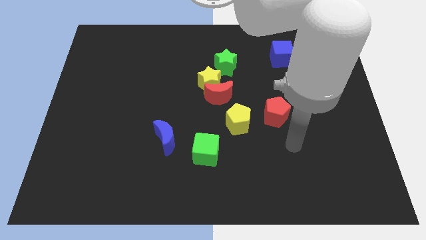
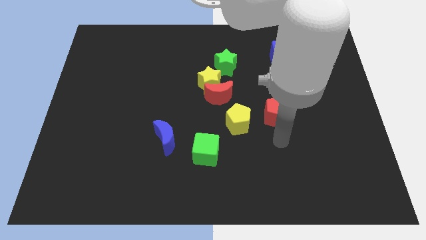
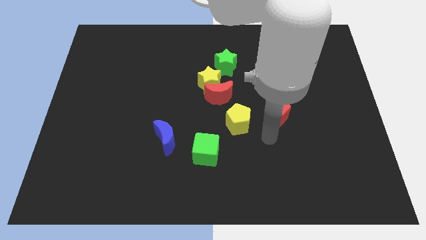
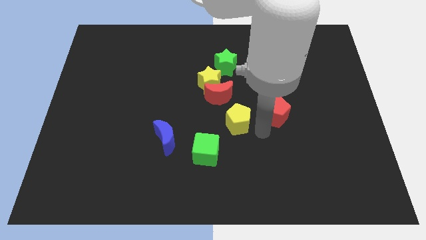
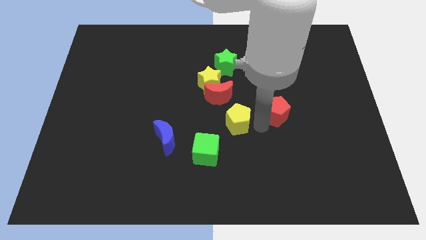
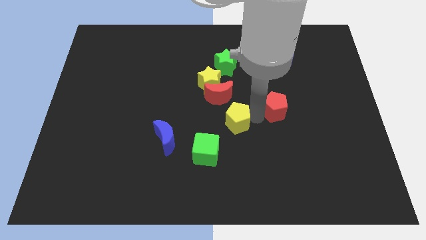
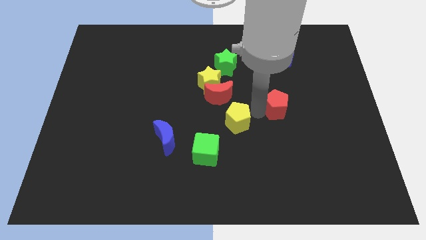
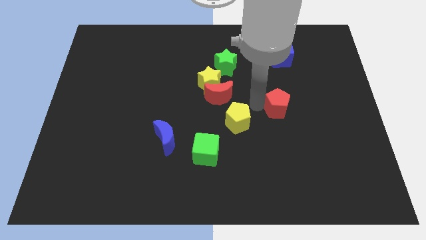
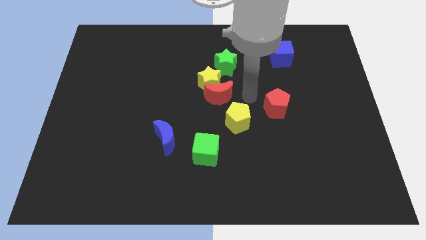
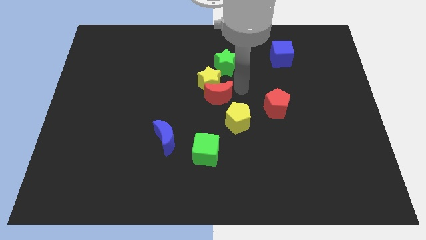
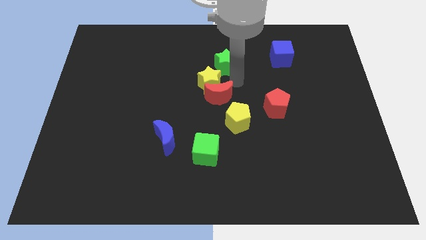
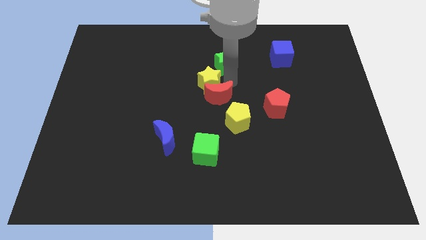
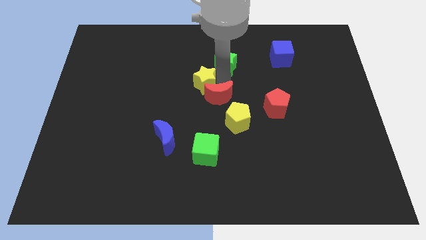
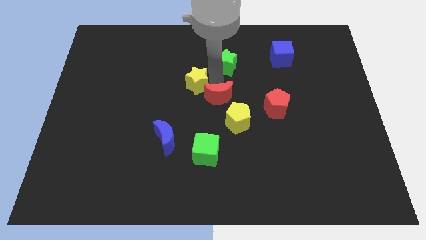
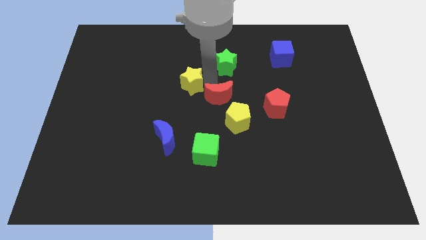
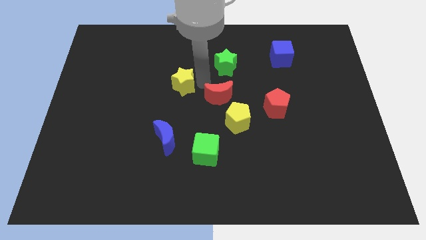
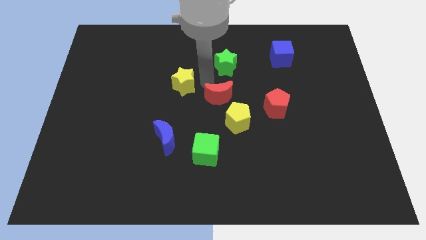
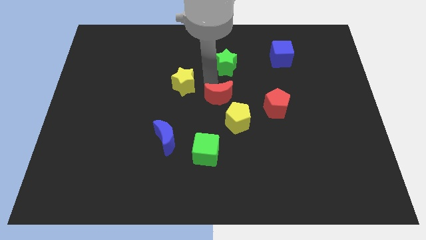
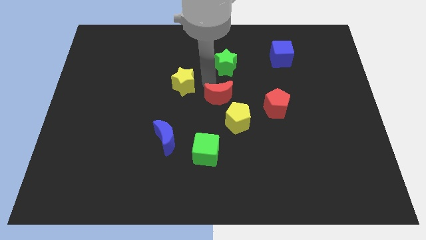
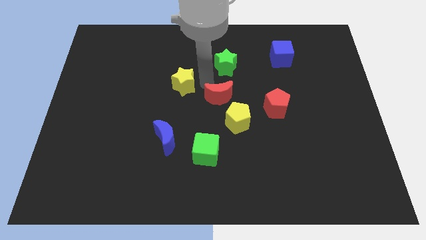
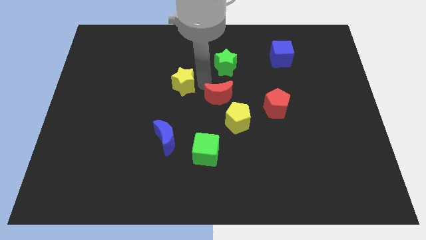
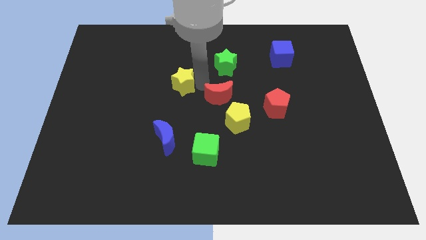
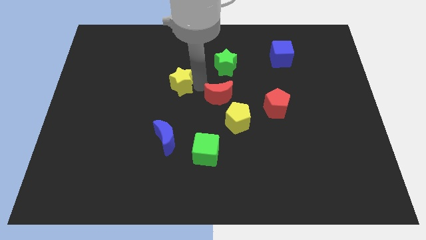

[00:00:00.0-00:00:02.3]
separate the yellow star from the red moon and green star

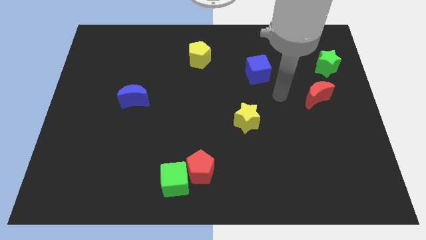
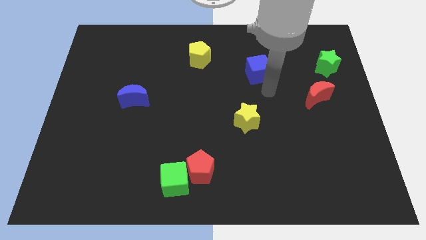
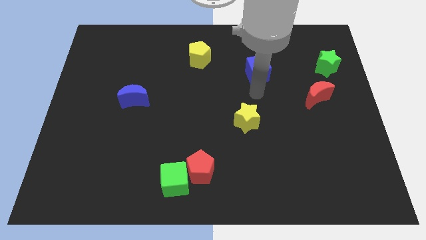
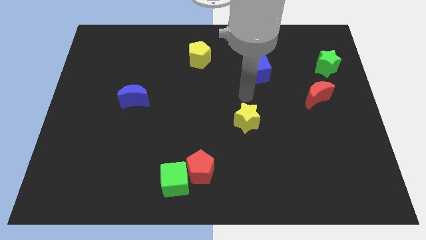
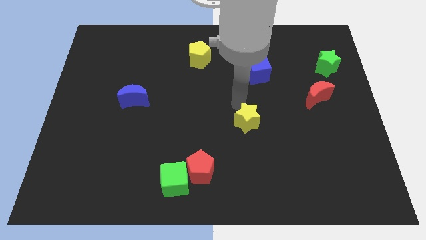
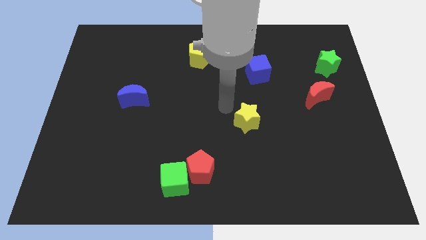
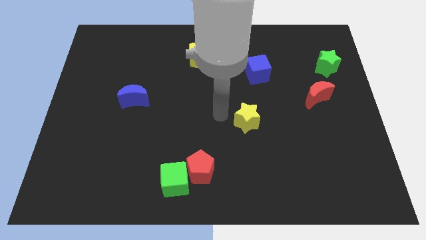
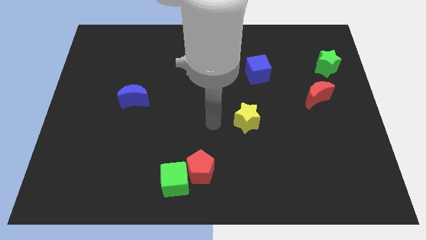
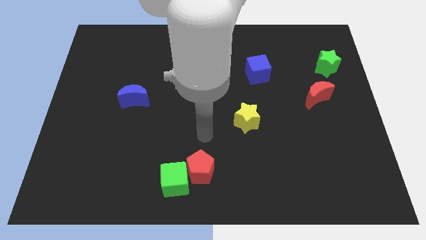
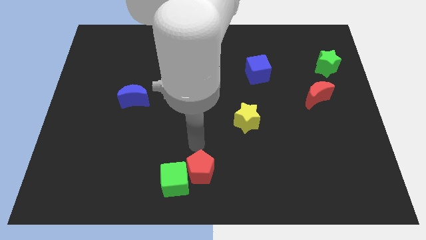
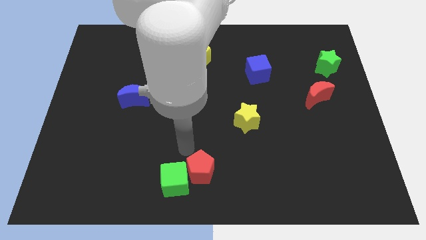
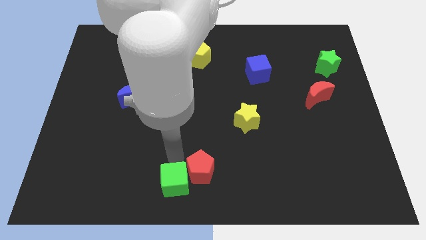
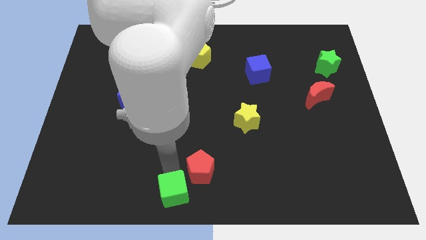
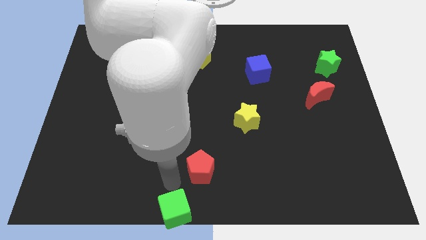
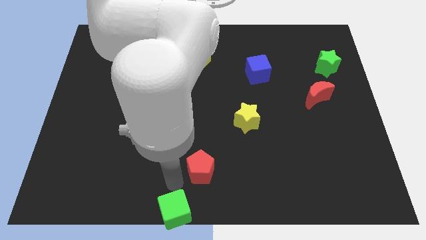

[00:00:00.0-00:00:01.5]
move the red pentagon away from the green cube

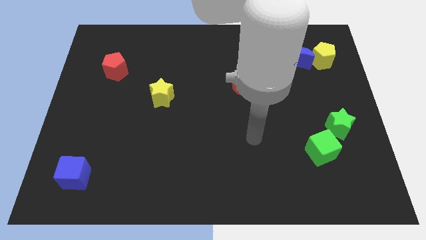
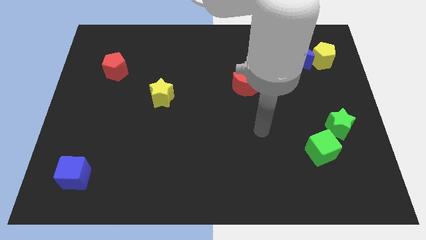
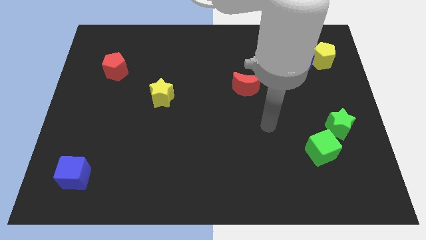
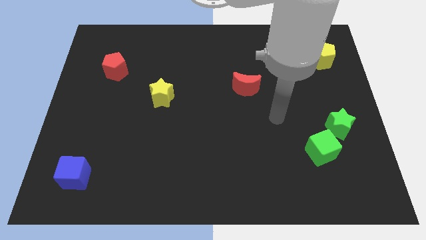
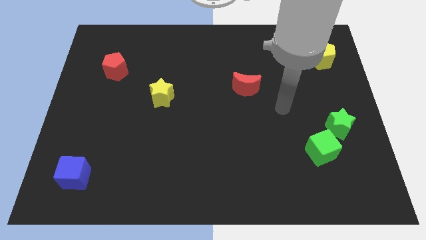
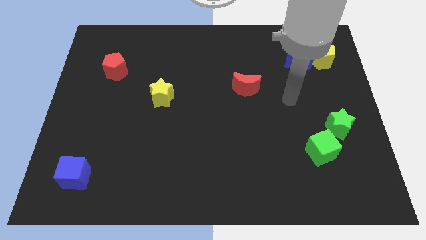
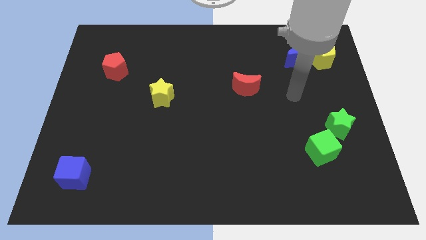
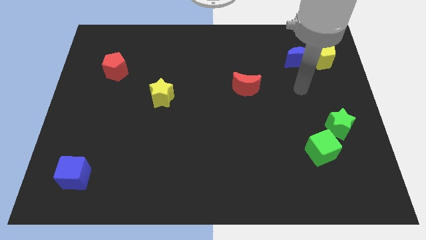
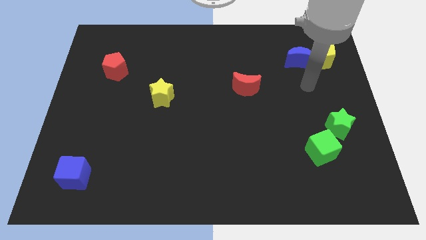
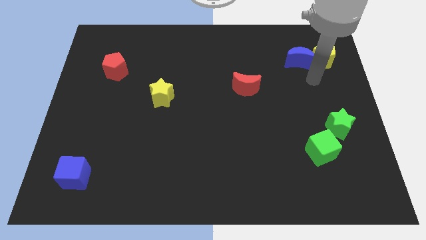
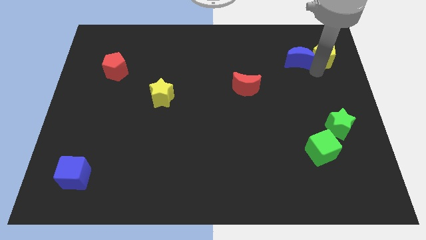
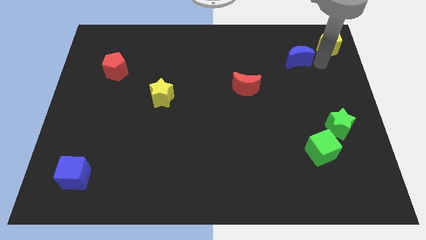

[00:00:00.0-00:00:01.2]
pull the blue moon apart from the yellow pentagon

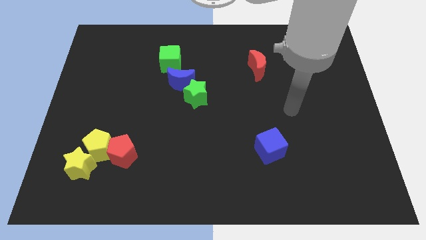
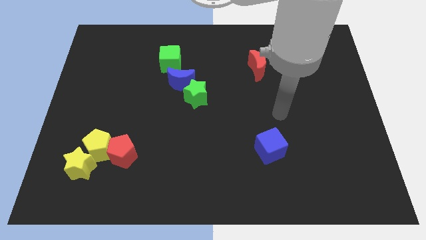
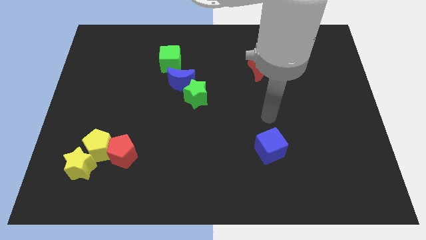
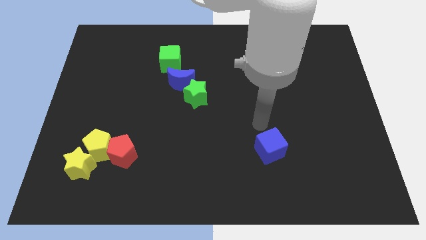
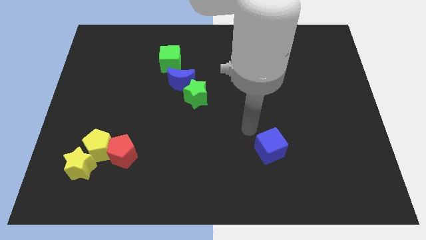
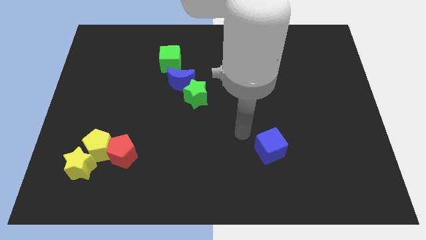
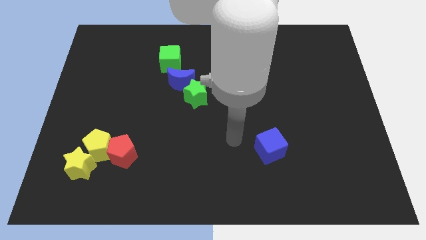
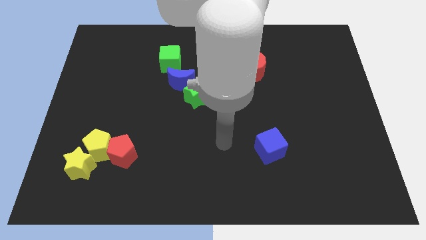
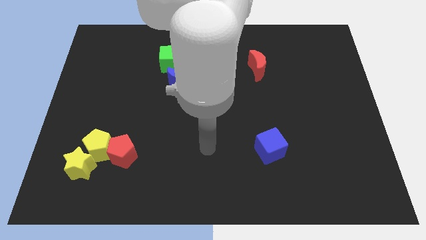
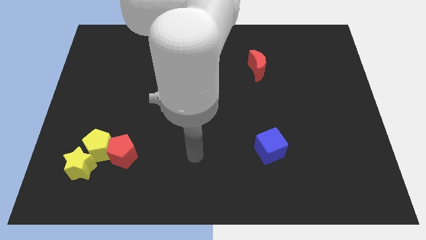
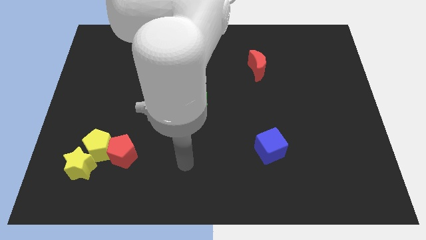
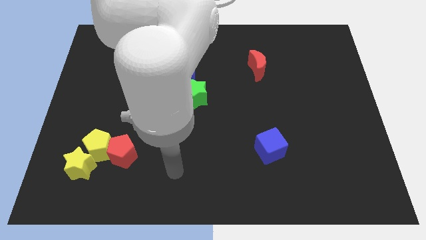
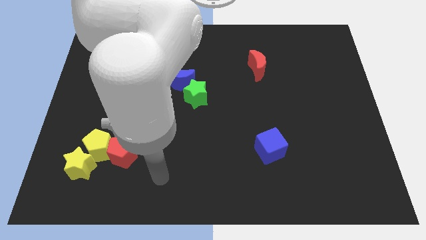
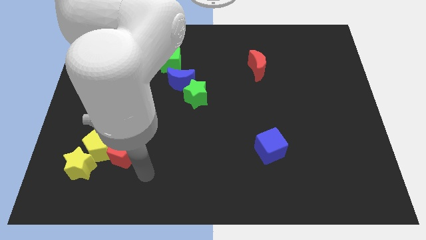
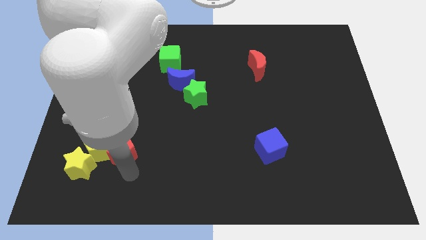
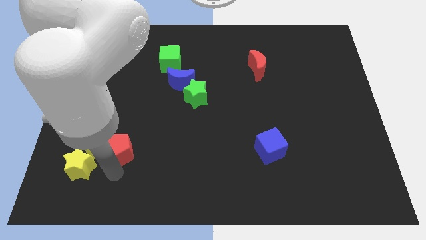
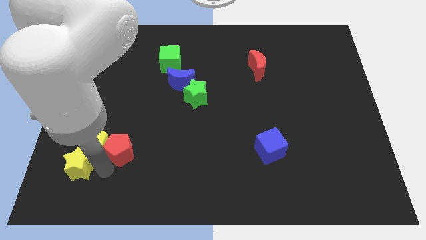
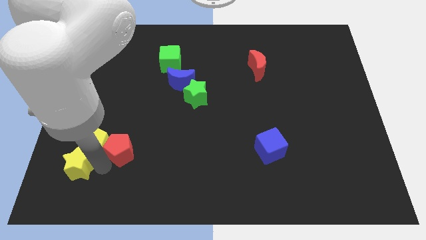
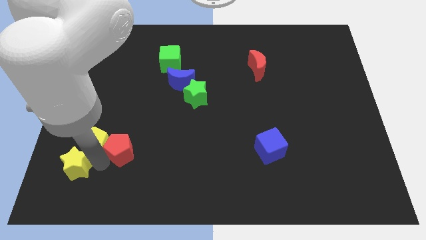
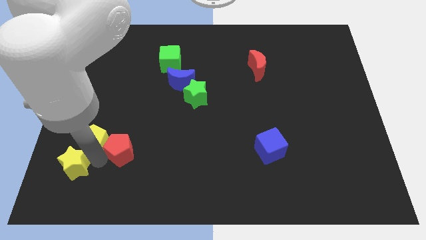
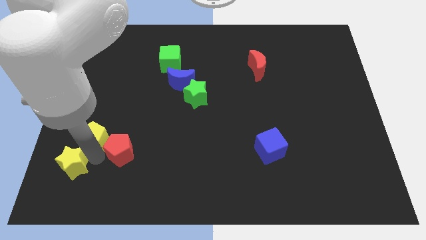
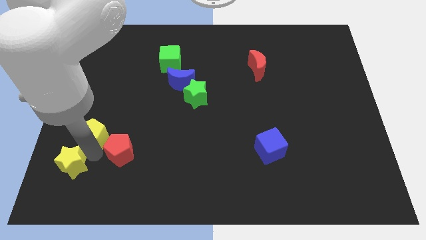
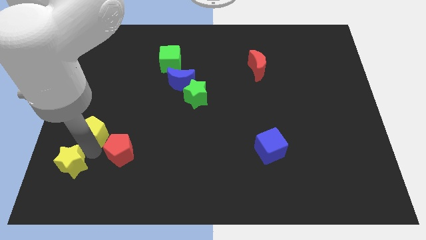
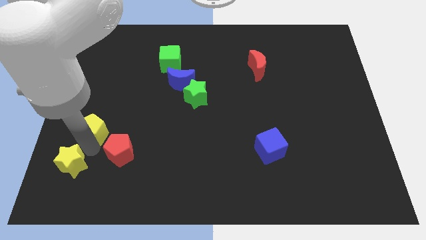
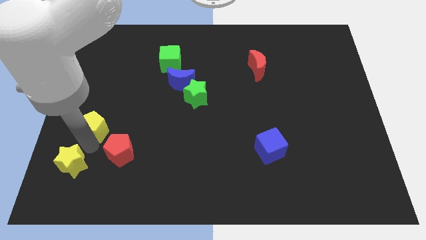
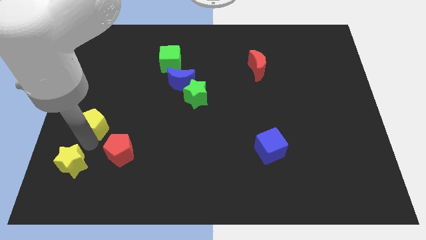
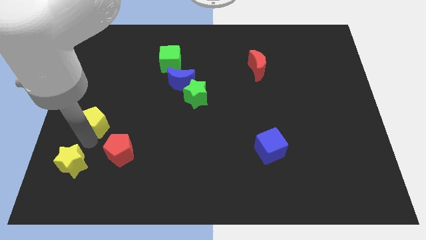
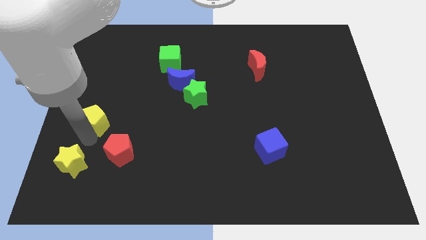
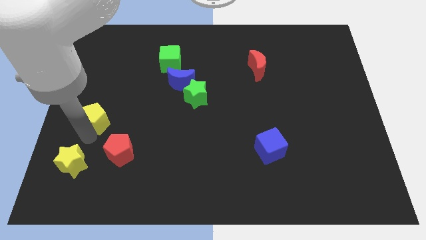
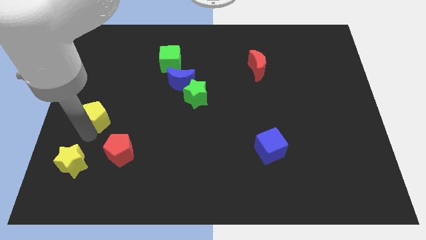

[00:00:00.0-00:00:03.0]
separate the yellow pentagon from the red pentagon and yellow star

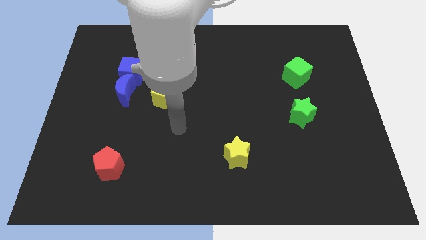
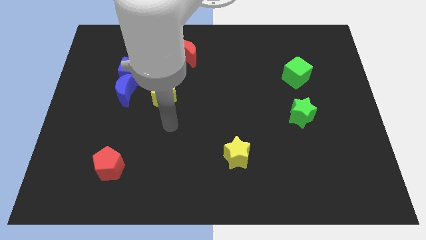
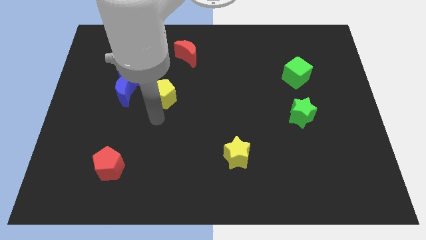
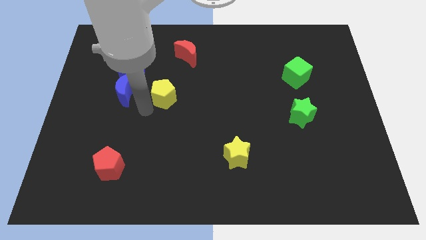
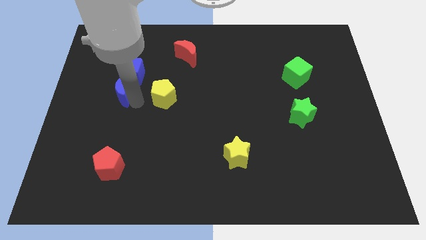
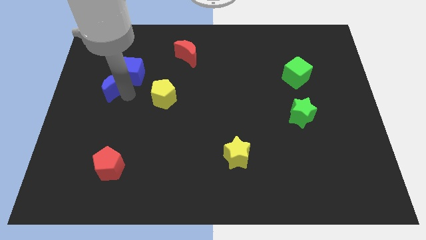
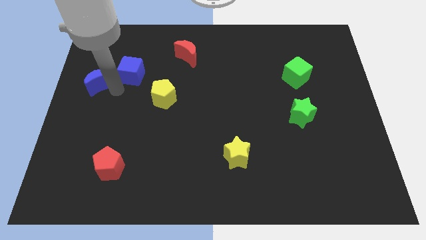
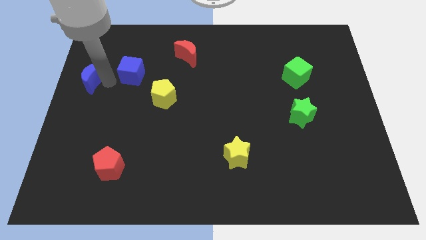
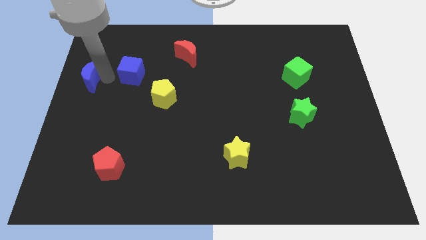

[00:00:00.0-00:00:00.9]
separate the blue cube from the blue moon

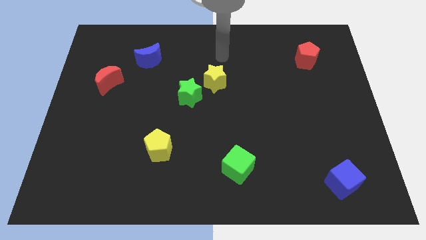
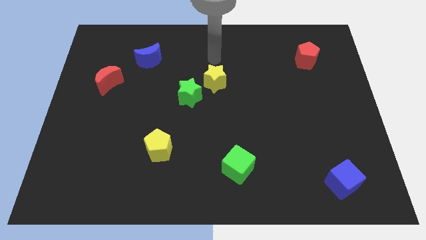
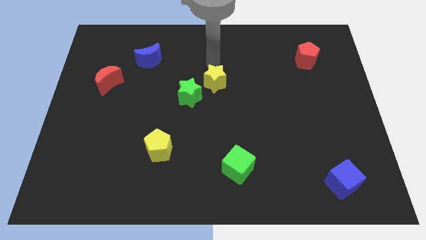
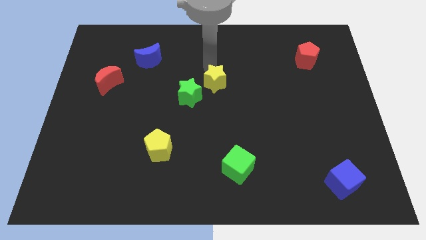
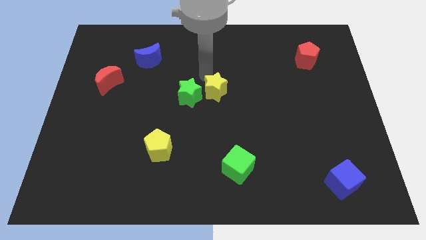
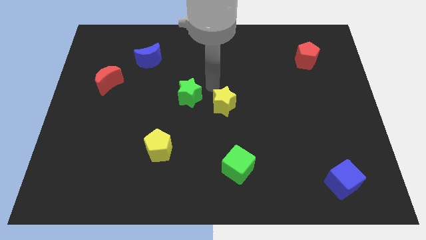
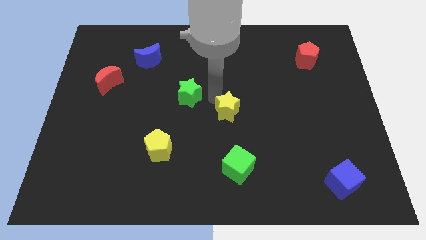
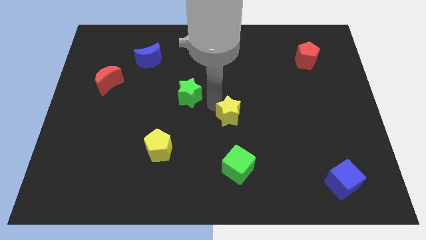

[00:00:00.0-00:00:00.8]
pull the green star apart from the yellow star
